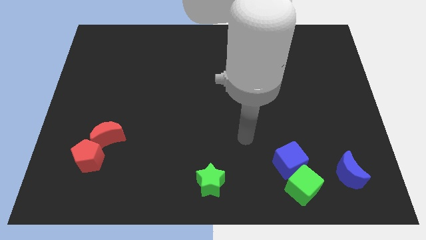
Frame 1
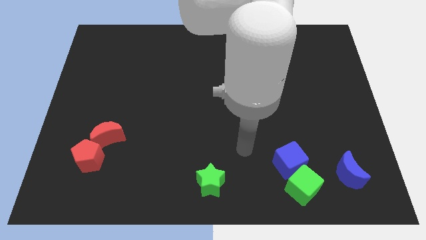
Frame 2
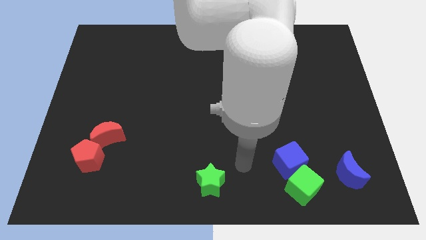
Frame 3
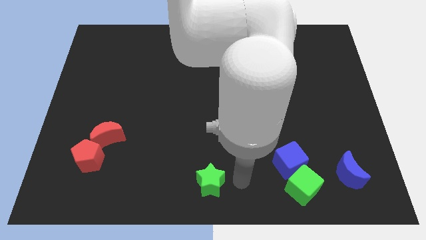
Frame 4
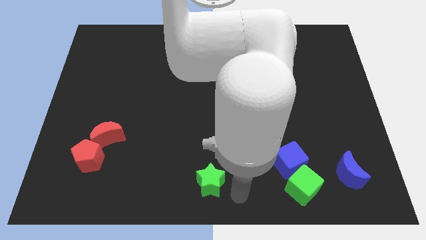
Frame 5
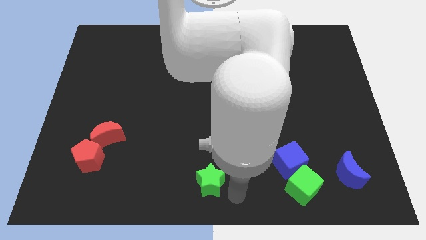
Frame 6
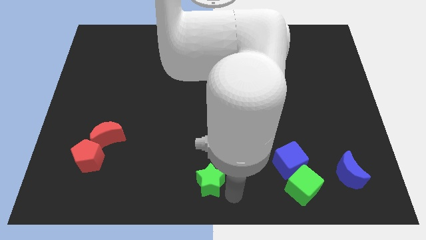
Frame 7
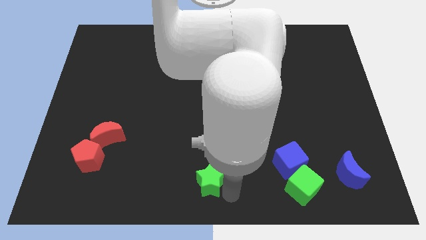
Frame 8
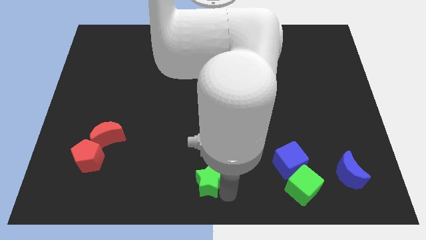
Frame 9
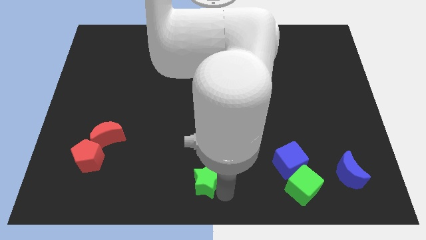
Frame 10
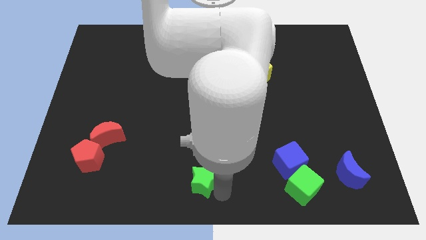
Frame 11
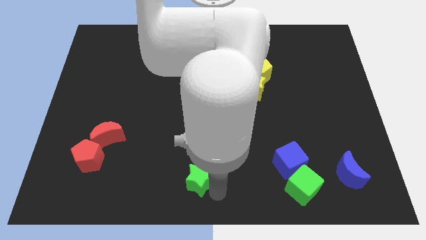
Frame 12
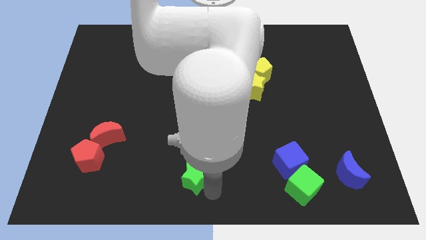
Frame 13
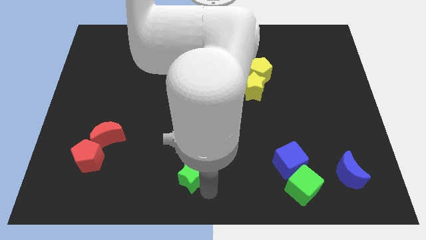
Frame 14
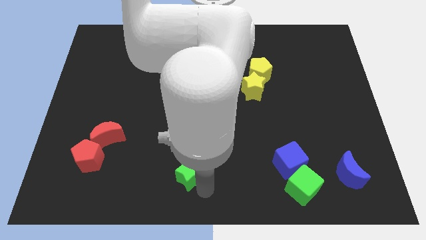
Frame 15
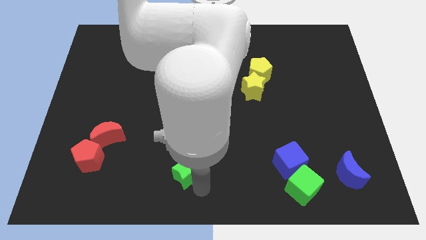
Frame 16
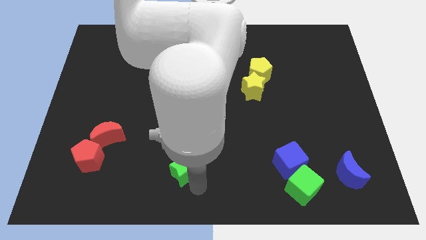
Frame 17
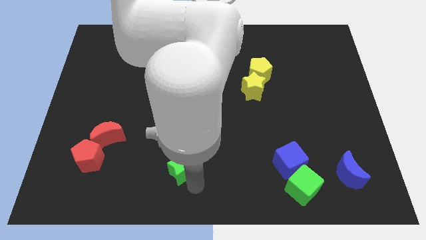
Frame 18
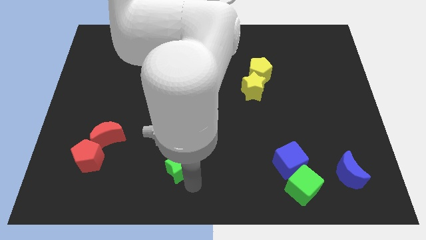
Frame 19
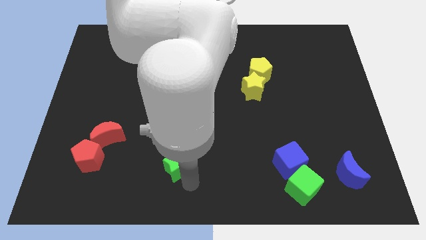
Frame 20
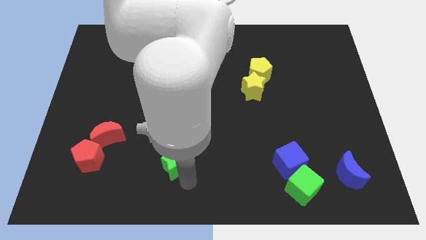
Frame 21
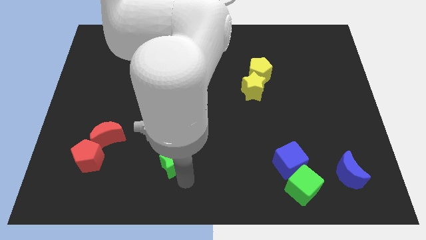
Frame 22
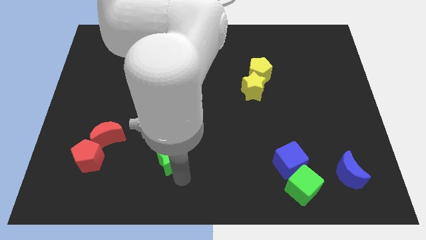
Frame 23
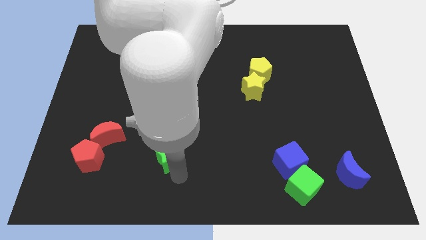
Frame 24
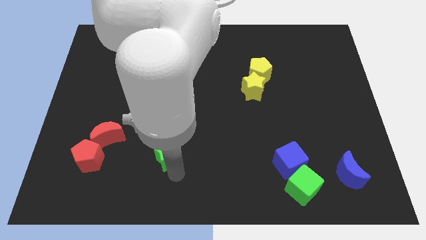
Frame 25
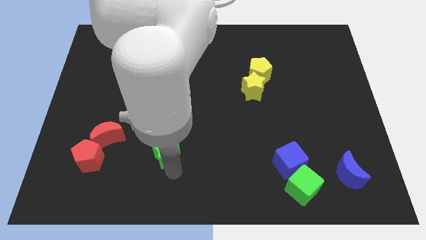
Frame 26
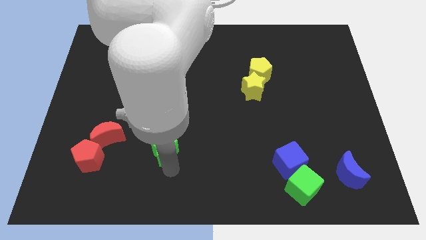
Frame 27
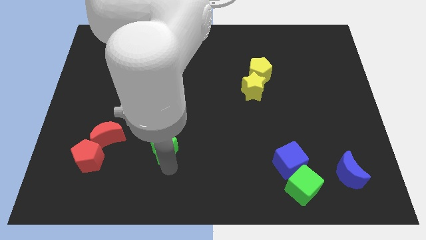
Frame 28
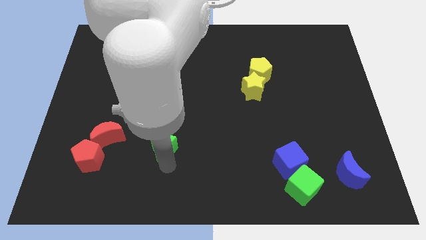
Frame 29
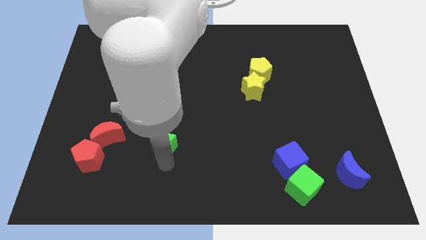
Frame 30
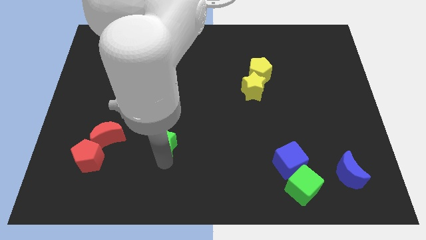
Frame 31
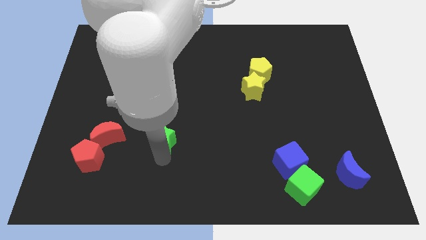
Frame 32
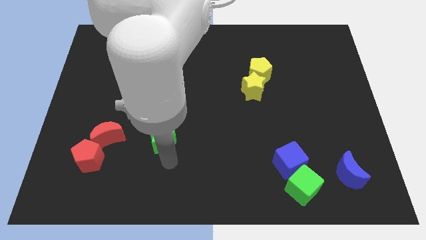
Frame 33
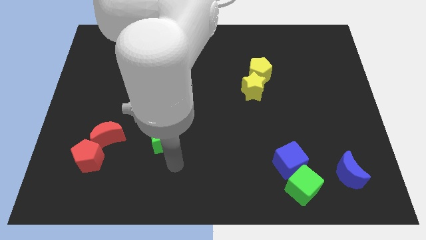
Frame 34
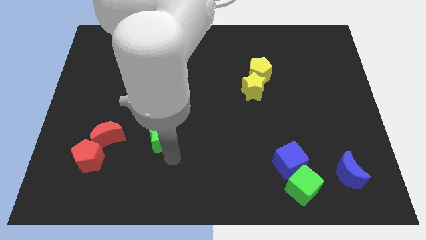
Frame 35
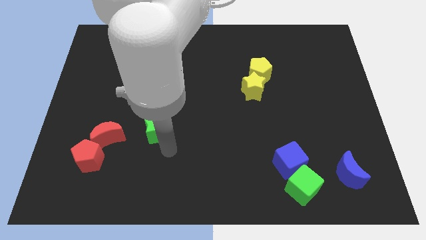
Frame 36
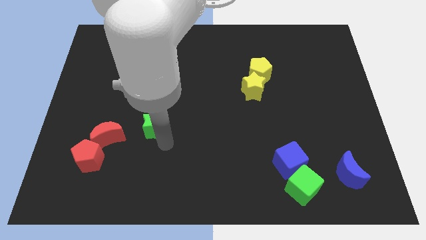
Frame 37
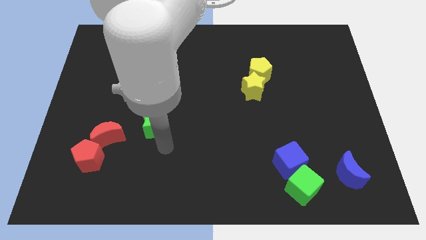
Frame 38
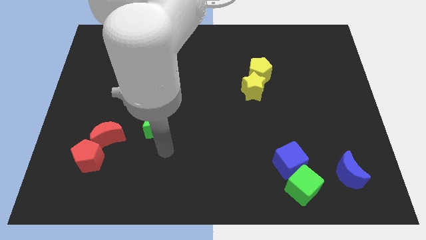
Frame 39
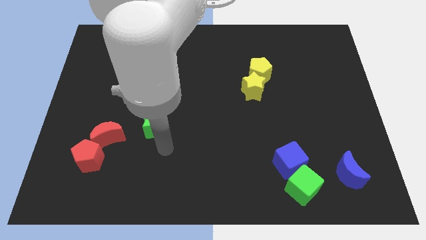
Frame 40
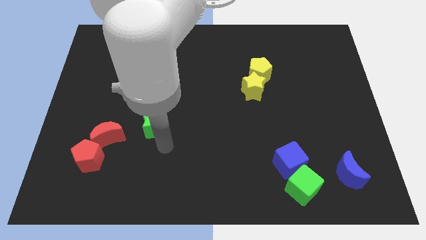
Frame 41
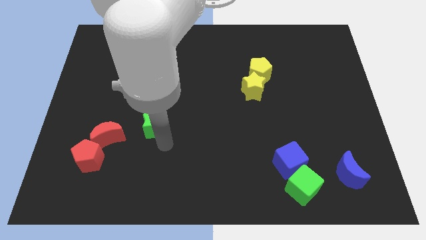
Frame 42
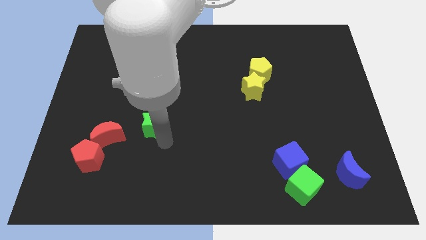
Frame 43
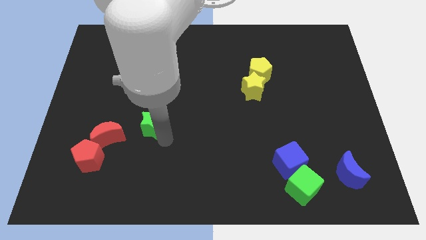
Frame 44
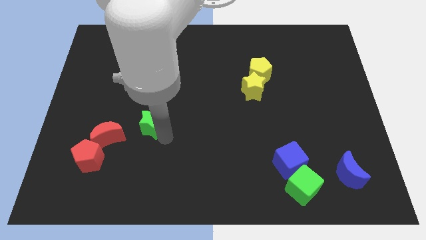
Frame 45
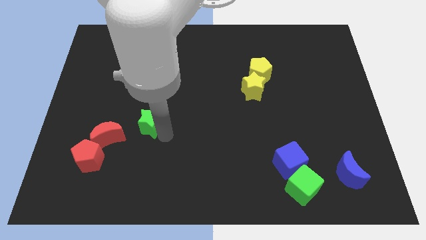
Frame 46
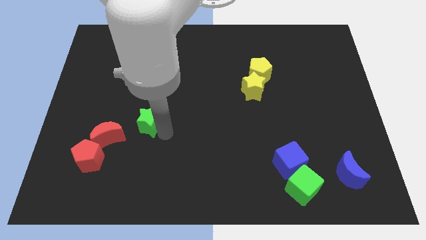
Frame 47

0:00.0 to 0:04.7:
push the green star up and left diagonally

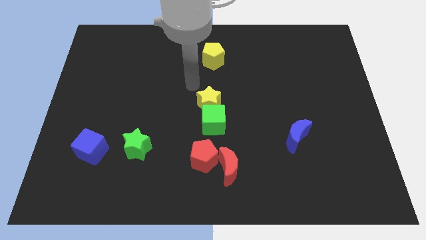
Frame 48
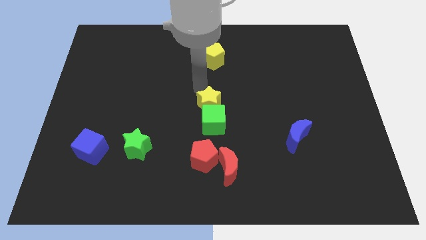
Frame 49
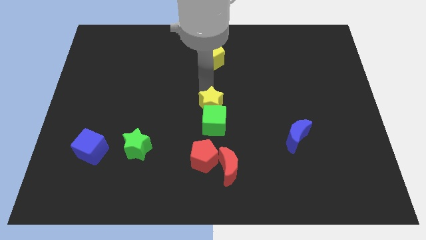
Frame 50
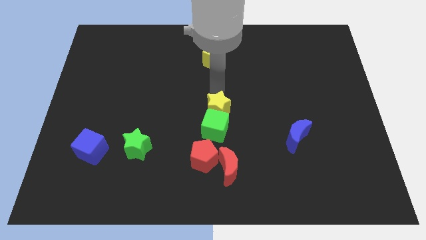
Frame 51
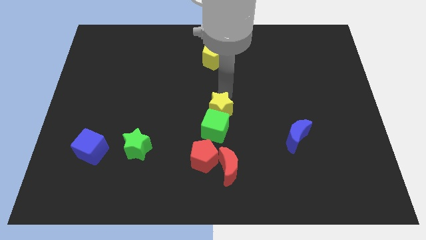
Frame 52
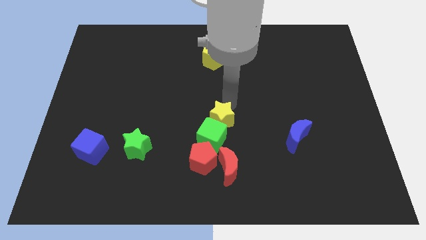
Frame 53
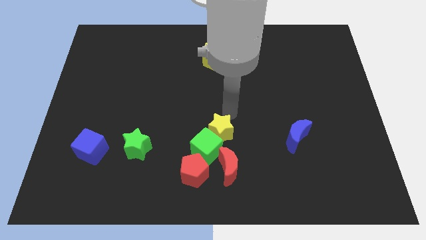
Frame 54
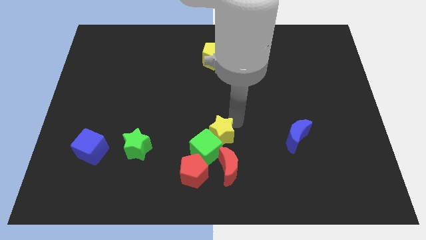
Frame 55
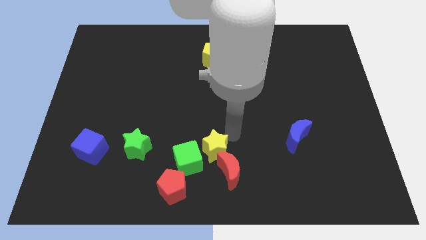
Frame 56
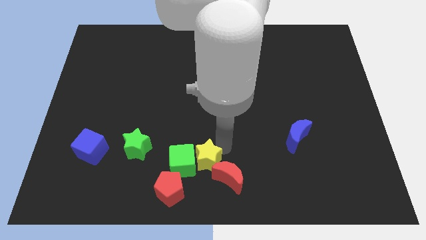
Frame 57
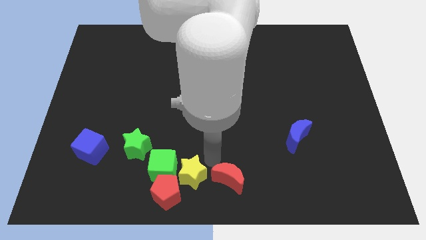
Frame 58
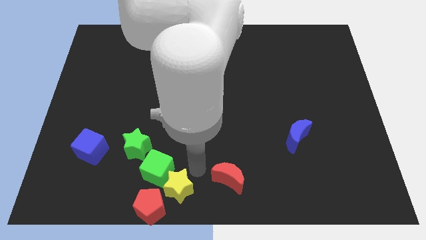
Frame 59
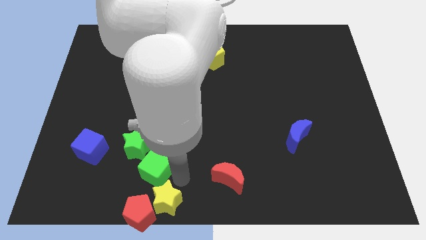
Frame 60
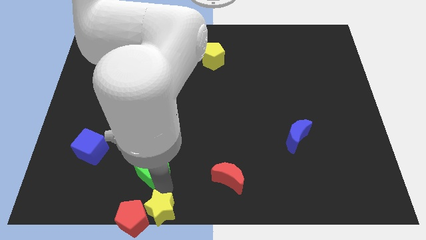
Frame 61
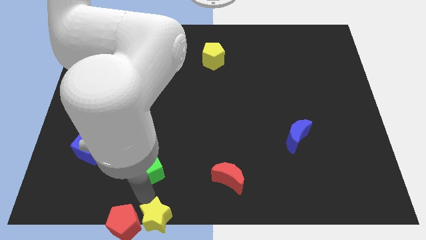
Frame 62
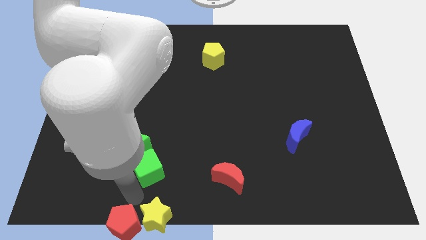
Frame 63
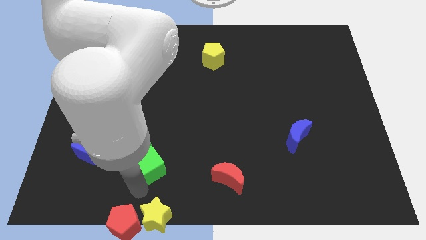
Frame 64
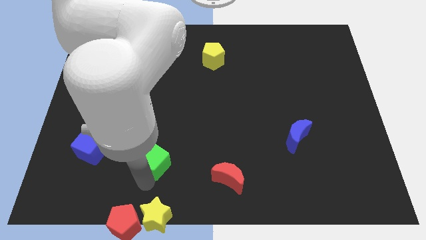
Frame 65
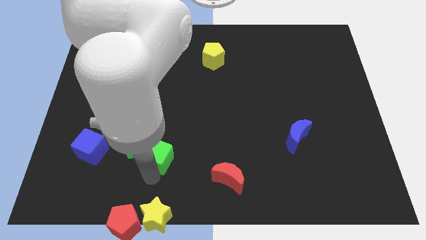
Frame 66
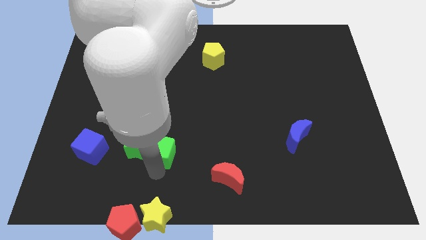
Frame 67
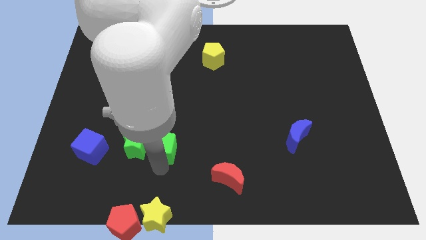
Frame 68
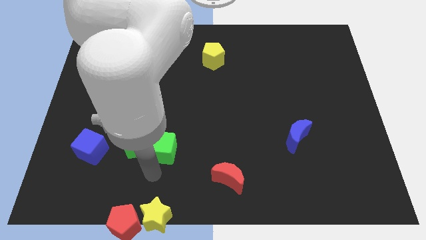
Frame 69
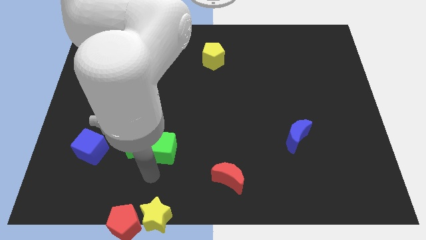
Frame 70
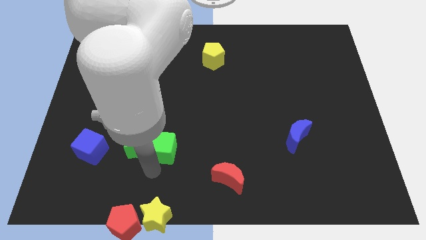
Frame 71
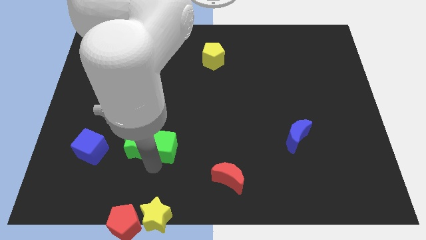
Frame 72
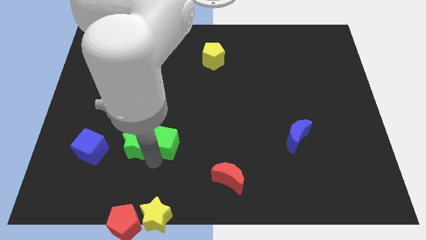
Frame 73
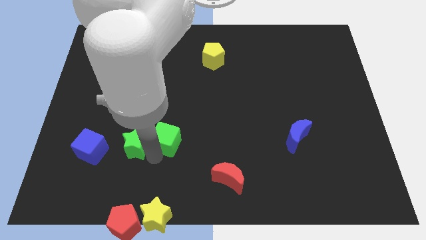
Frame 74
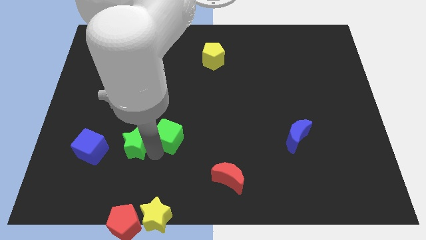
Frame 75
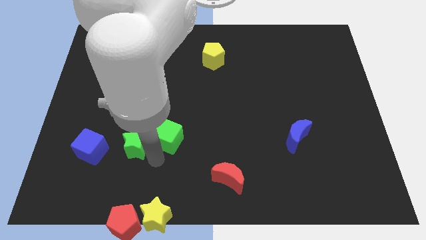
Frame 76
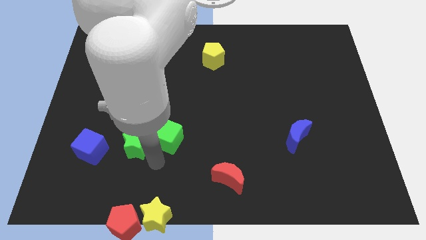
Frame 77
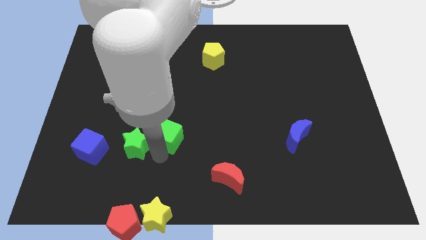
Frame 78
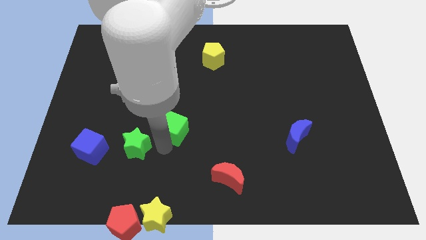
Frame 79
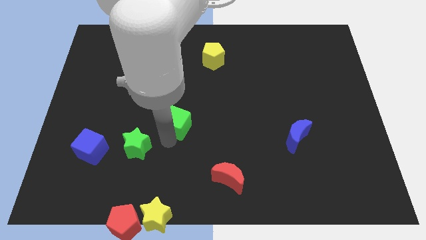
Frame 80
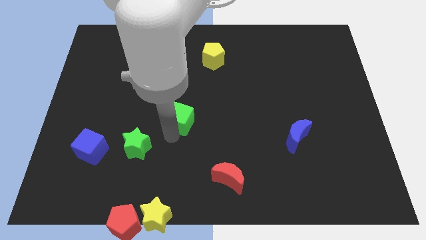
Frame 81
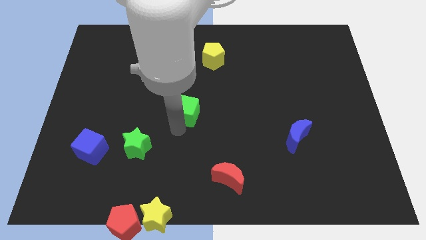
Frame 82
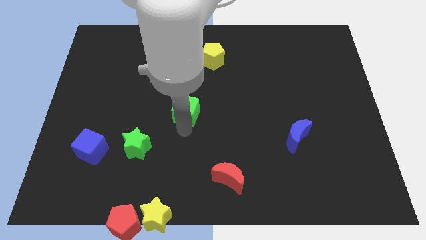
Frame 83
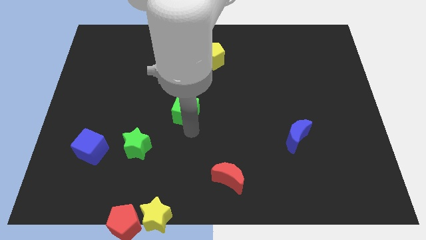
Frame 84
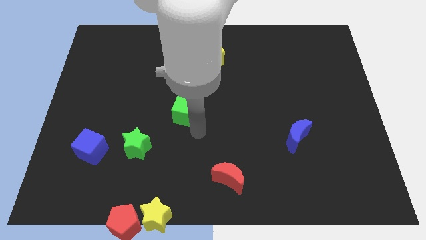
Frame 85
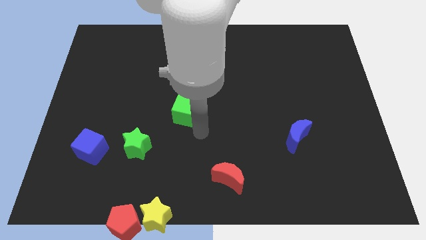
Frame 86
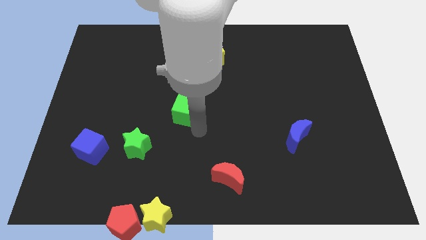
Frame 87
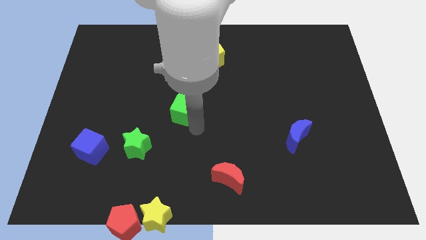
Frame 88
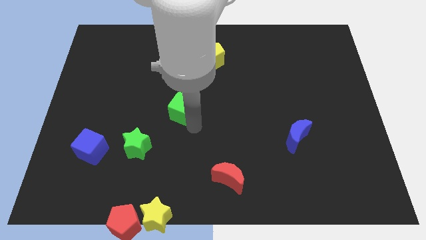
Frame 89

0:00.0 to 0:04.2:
slightly push the green cube diagonally up and left
